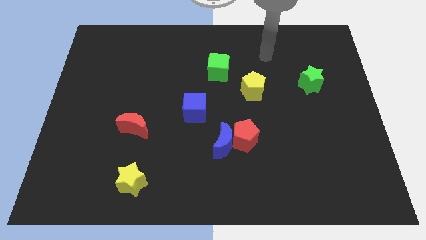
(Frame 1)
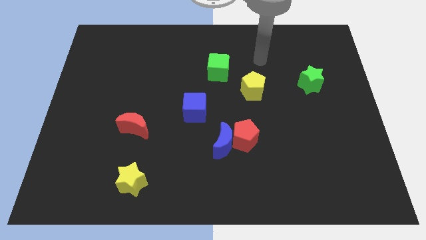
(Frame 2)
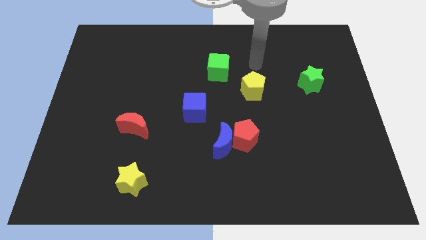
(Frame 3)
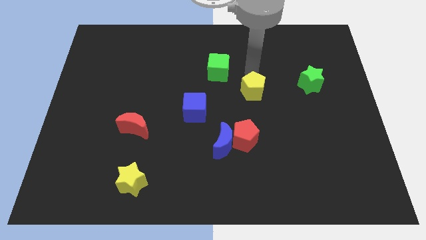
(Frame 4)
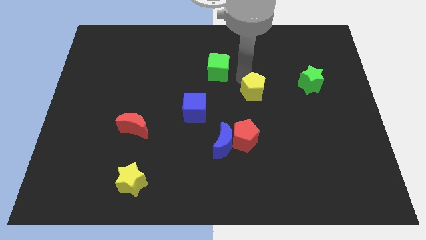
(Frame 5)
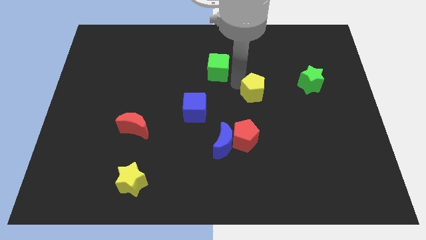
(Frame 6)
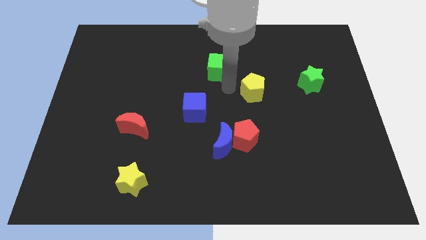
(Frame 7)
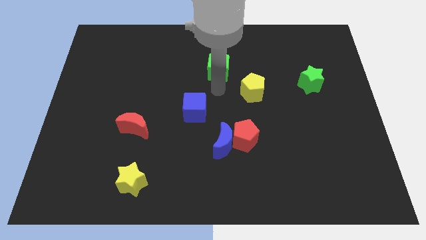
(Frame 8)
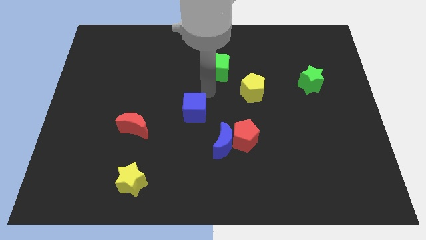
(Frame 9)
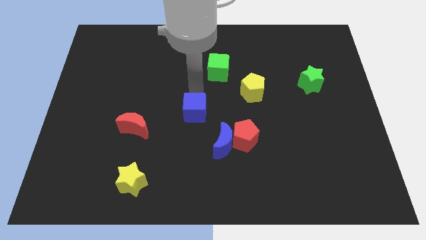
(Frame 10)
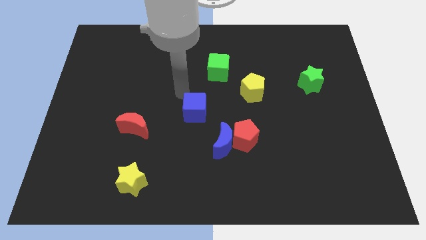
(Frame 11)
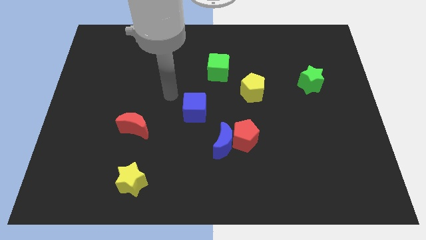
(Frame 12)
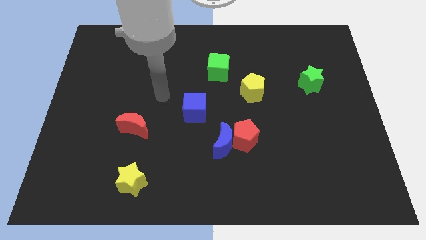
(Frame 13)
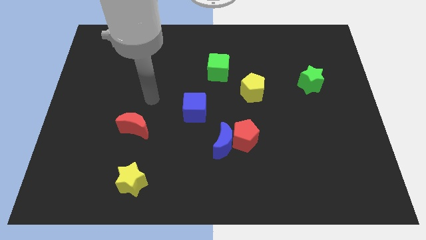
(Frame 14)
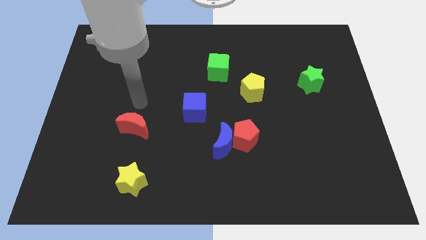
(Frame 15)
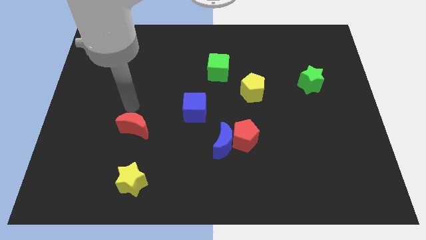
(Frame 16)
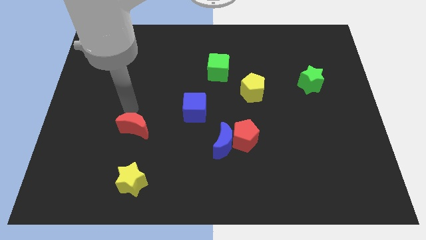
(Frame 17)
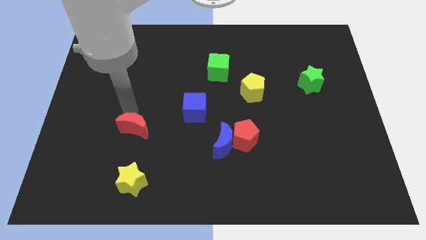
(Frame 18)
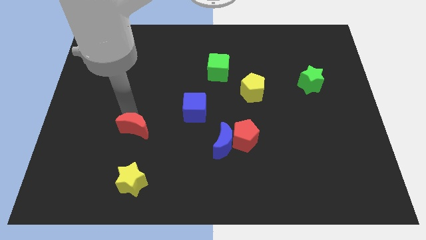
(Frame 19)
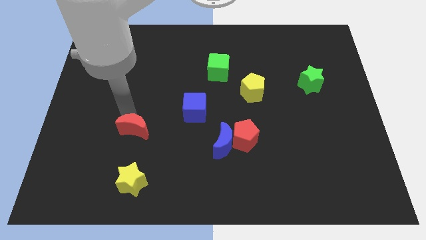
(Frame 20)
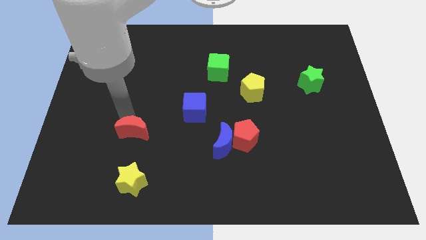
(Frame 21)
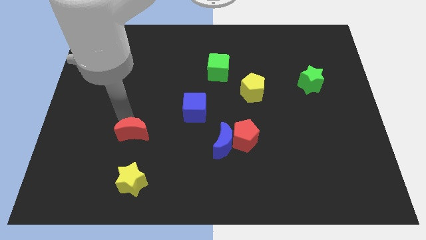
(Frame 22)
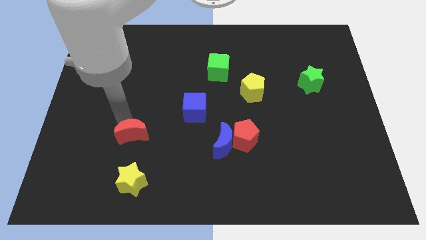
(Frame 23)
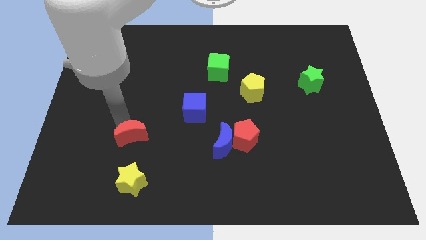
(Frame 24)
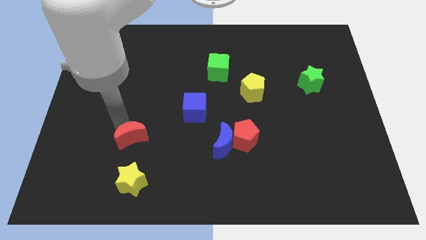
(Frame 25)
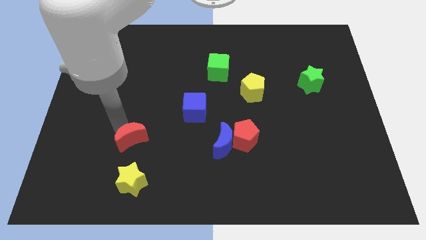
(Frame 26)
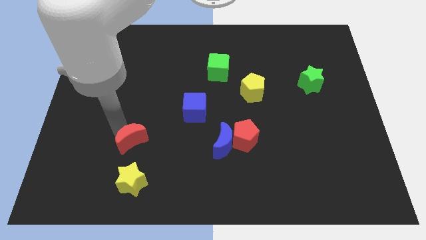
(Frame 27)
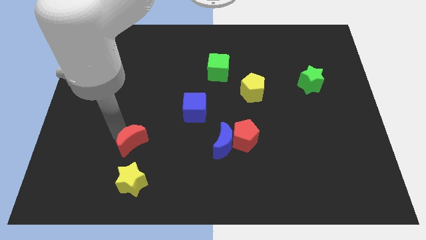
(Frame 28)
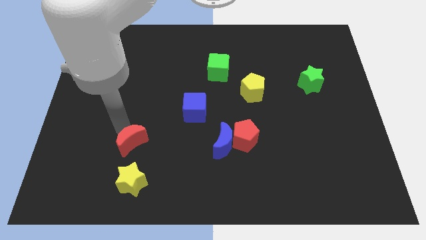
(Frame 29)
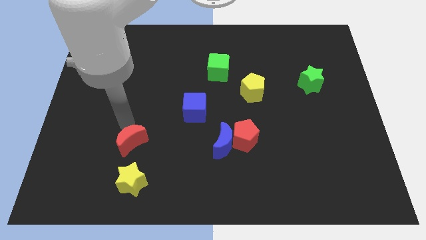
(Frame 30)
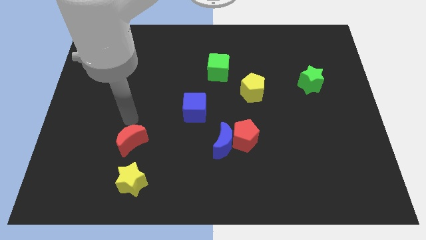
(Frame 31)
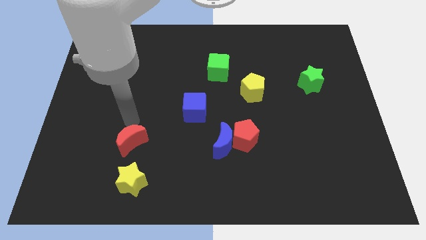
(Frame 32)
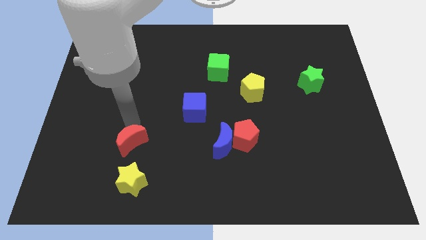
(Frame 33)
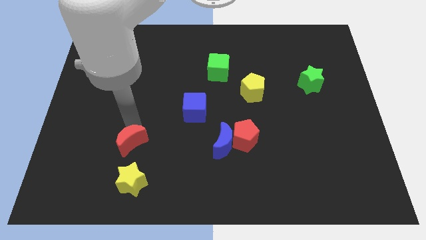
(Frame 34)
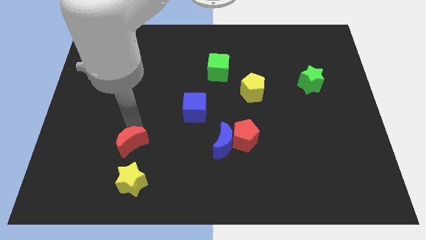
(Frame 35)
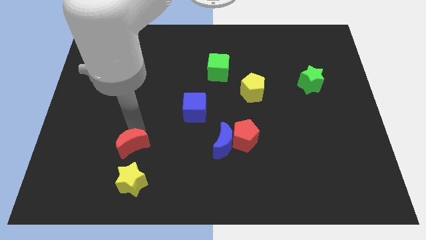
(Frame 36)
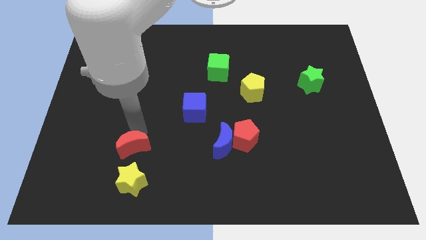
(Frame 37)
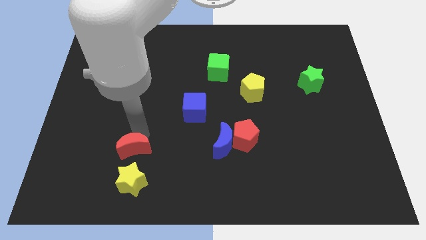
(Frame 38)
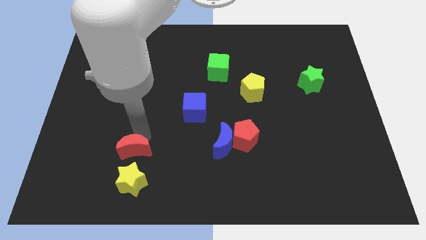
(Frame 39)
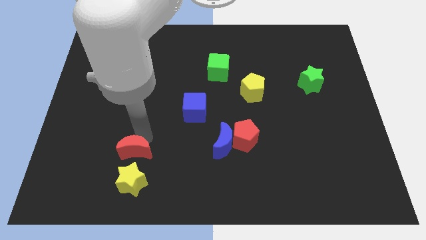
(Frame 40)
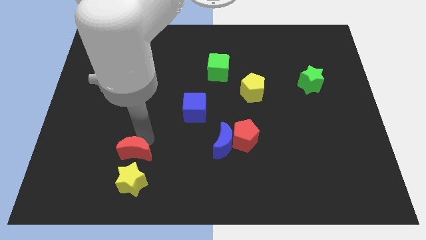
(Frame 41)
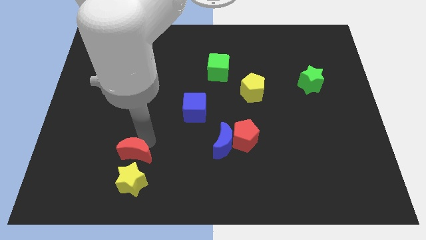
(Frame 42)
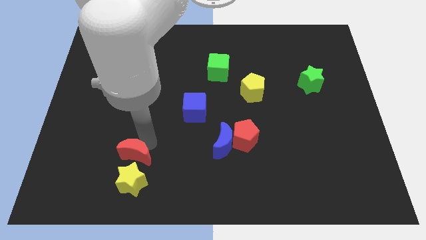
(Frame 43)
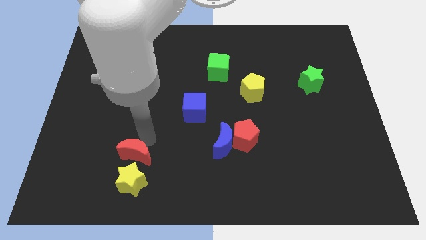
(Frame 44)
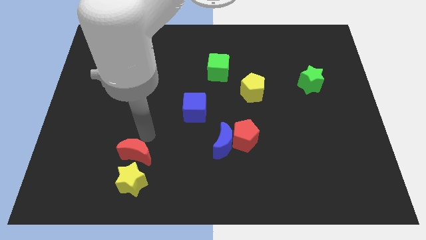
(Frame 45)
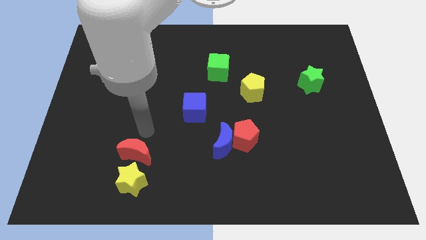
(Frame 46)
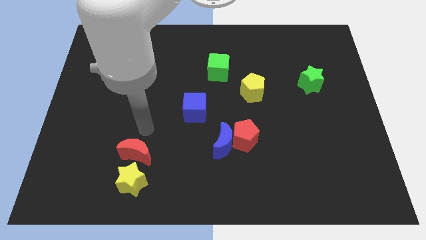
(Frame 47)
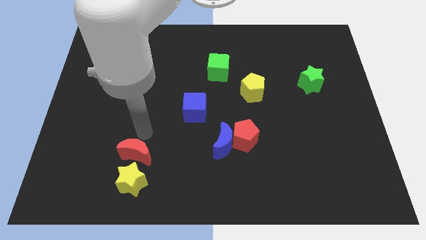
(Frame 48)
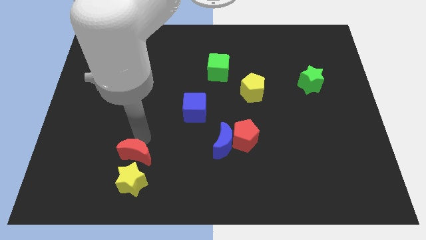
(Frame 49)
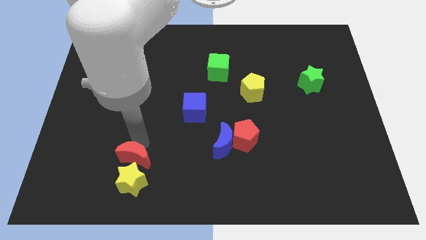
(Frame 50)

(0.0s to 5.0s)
push the red moon towards the yellow star

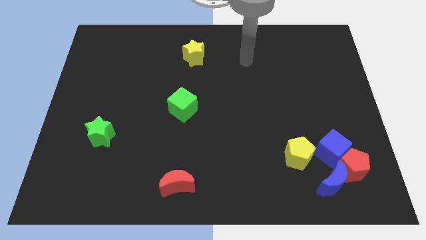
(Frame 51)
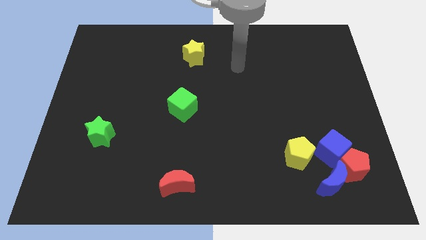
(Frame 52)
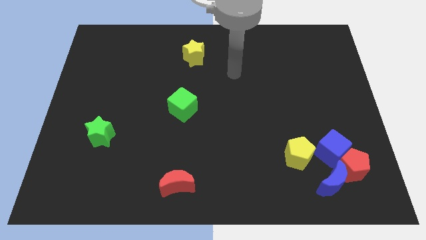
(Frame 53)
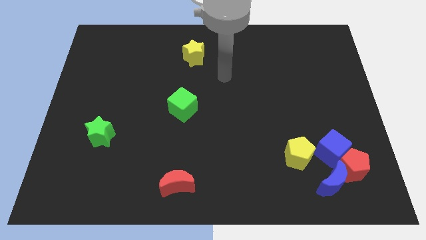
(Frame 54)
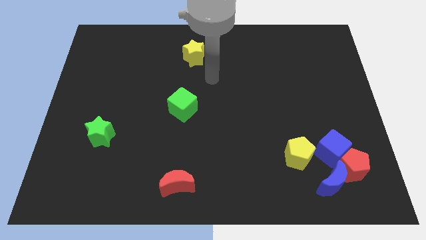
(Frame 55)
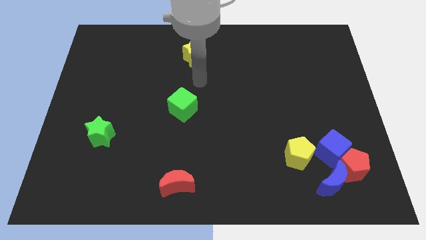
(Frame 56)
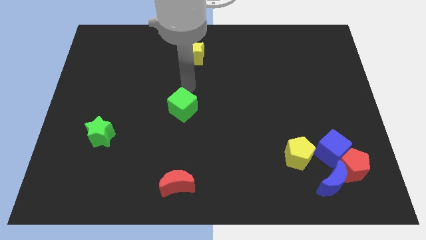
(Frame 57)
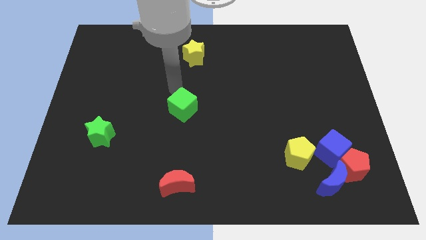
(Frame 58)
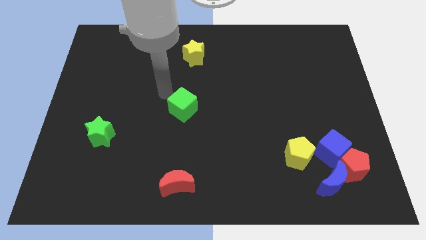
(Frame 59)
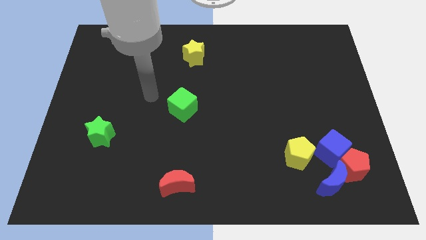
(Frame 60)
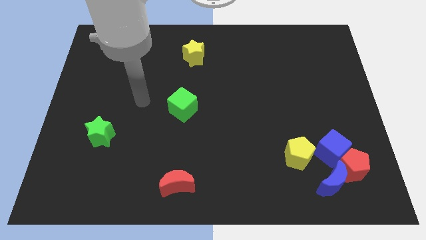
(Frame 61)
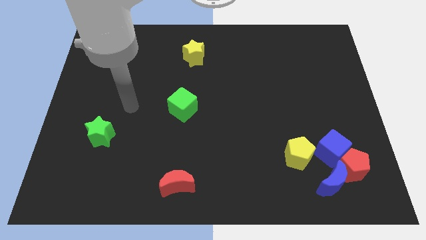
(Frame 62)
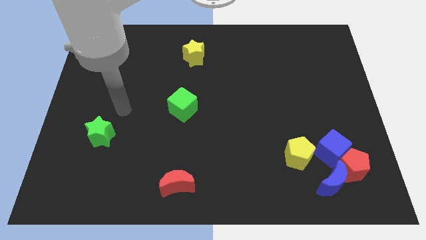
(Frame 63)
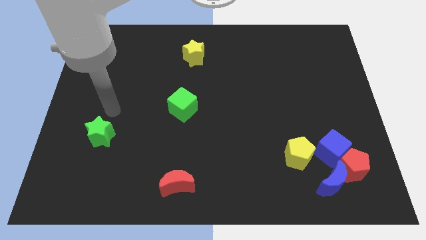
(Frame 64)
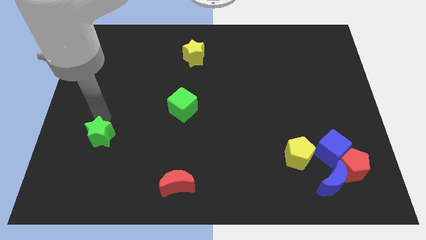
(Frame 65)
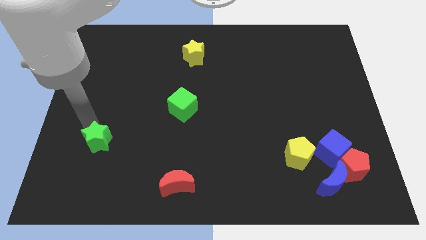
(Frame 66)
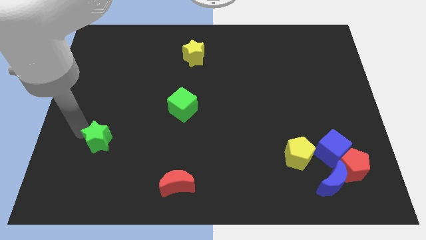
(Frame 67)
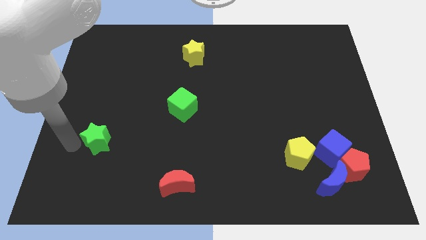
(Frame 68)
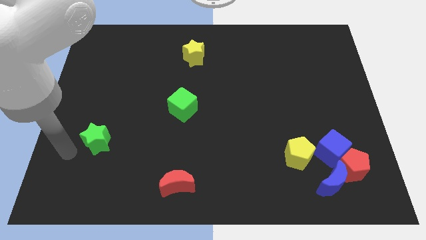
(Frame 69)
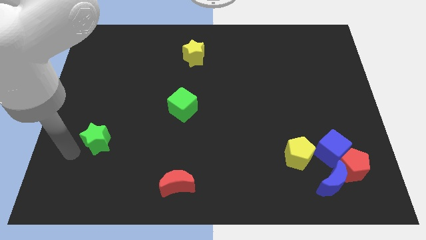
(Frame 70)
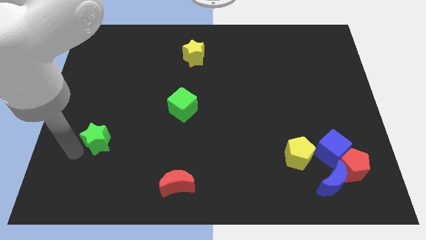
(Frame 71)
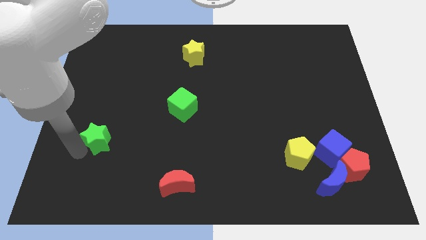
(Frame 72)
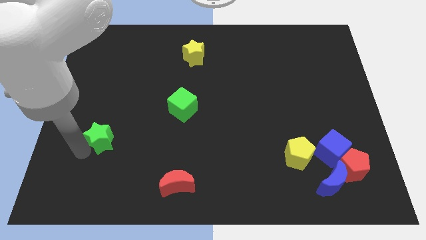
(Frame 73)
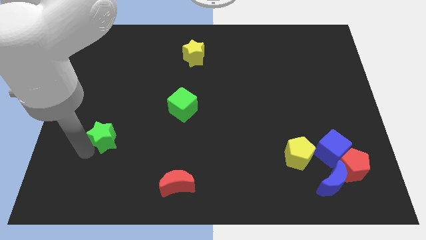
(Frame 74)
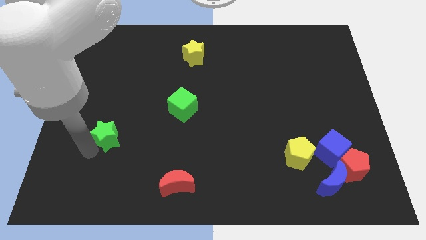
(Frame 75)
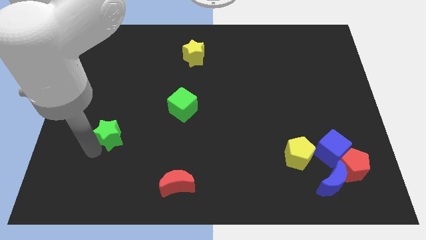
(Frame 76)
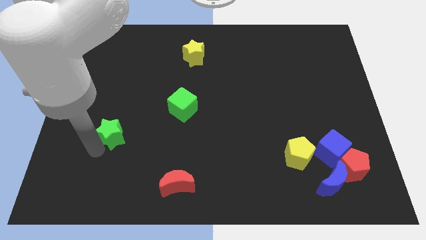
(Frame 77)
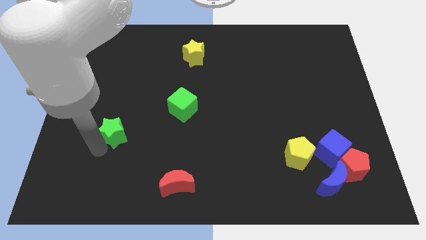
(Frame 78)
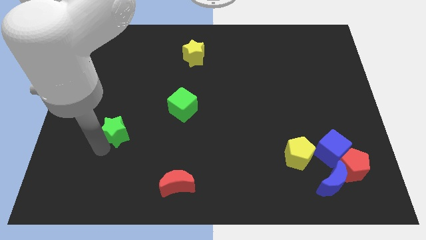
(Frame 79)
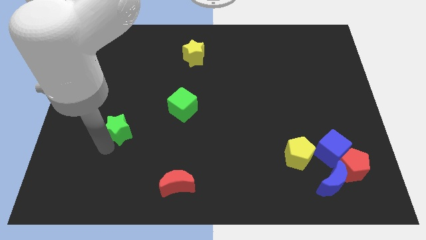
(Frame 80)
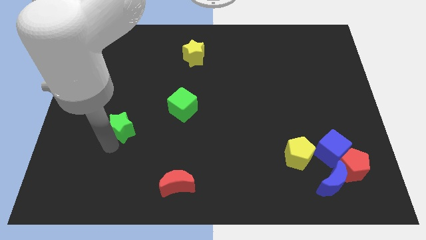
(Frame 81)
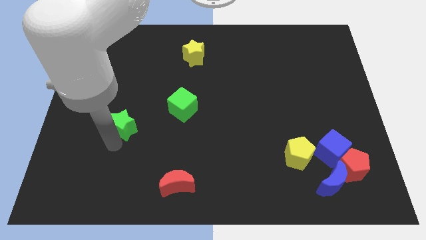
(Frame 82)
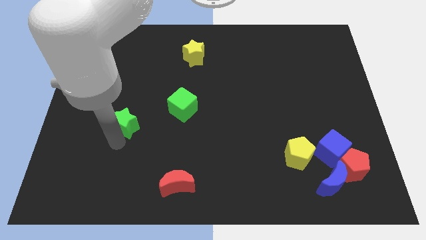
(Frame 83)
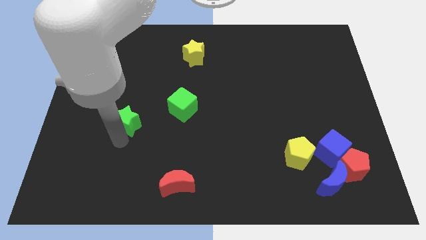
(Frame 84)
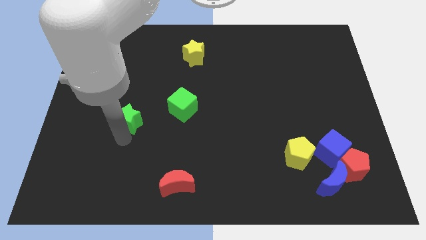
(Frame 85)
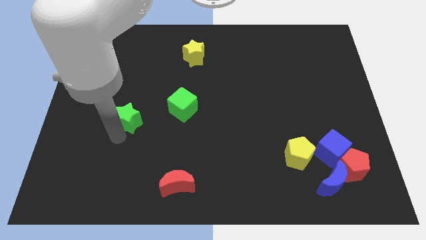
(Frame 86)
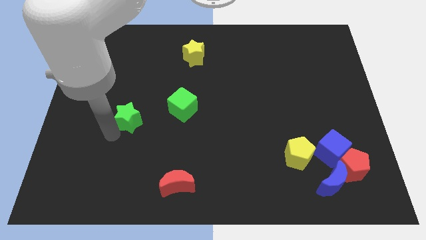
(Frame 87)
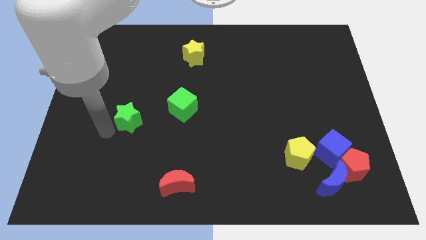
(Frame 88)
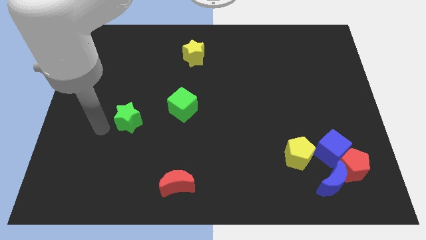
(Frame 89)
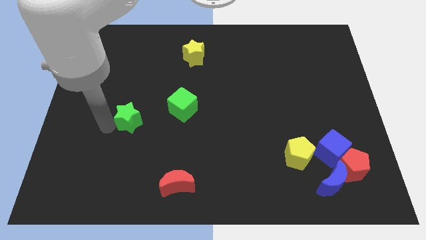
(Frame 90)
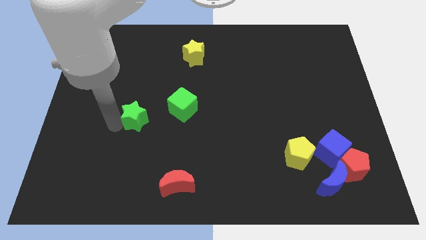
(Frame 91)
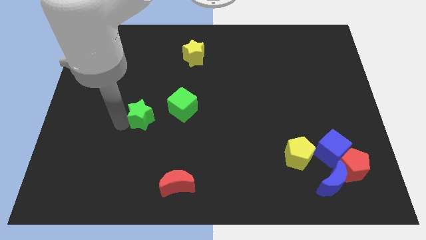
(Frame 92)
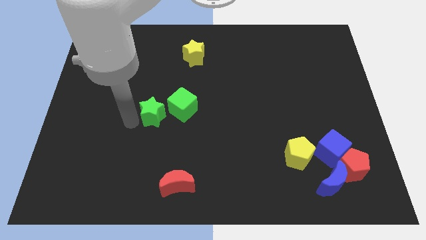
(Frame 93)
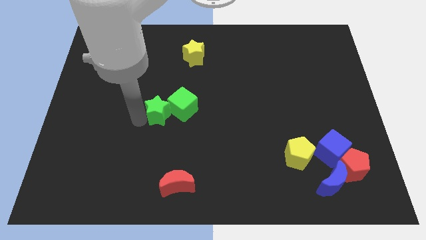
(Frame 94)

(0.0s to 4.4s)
push the green star to the green cube
